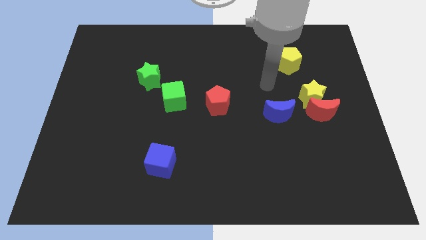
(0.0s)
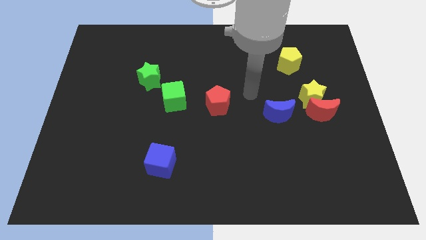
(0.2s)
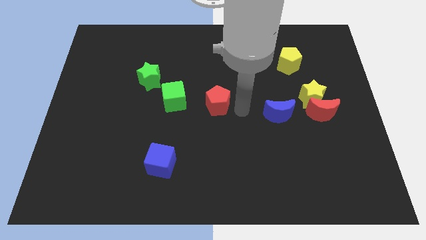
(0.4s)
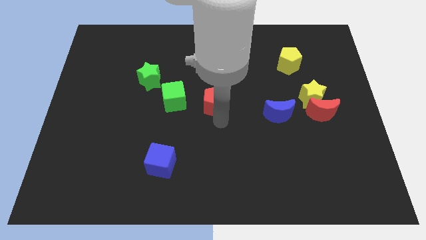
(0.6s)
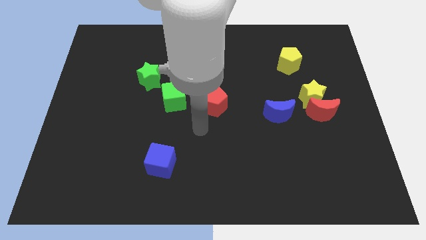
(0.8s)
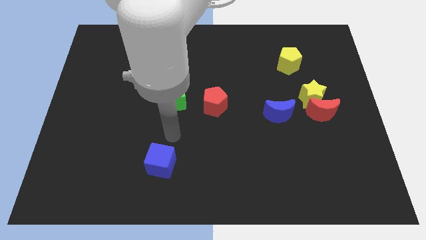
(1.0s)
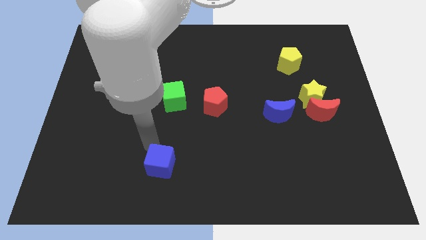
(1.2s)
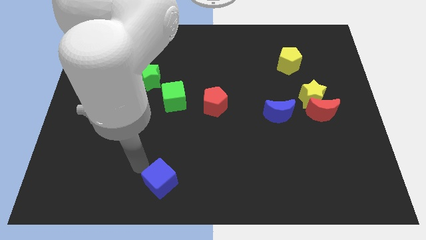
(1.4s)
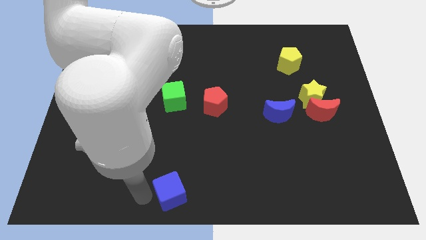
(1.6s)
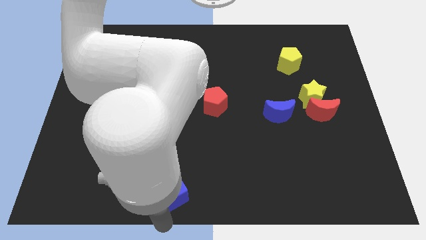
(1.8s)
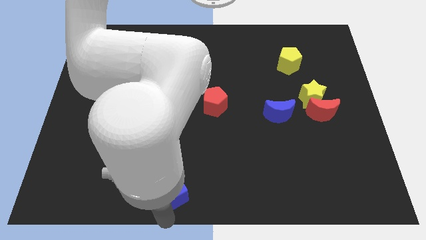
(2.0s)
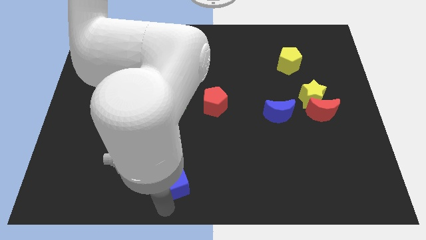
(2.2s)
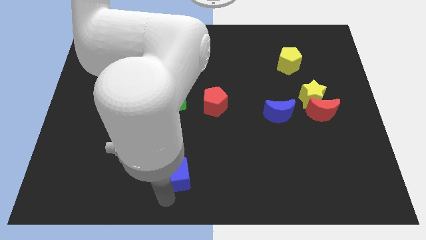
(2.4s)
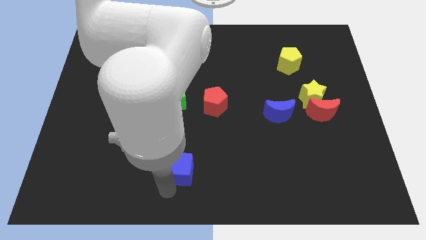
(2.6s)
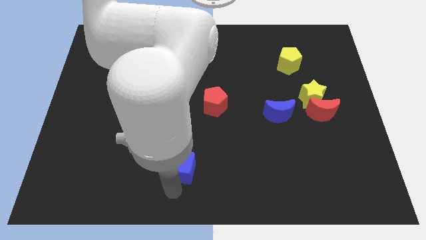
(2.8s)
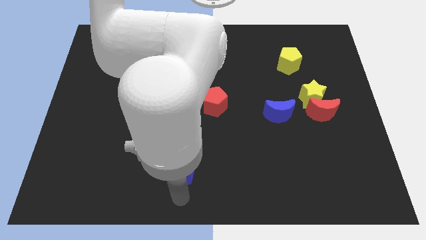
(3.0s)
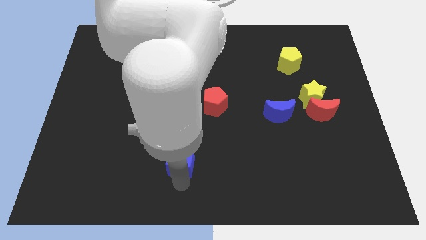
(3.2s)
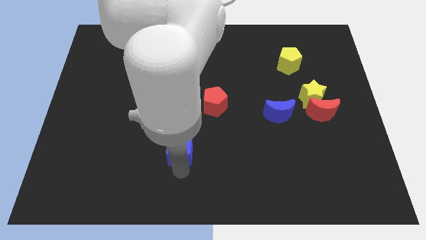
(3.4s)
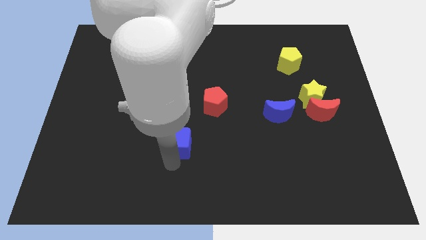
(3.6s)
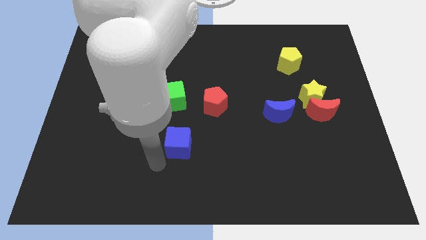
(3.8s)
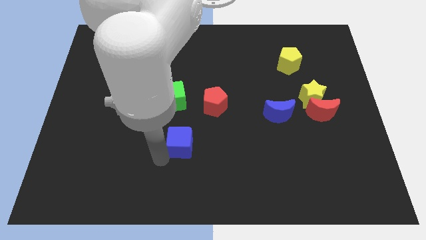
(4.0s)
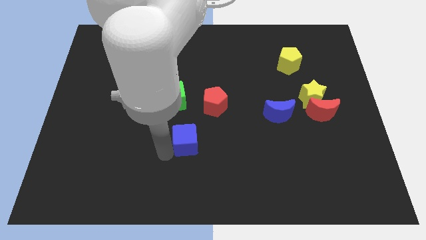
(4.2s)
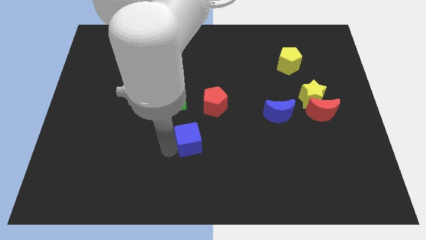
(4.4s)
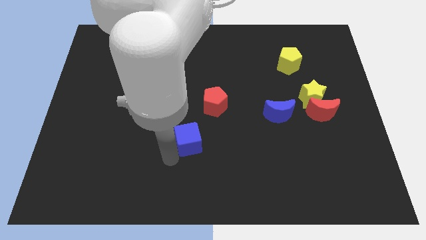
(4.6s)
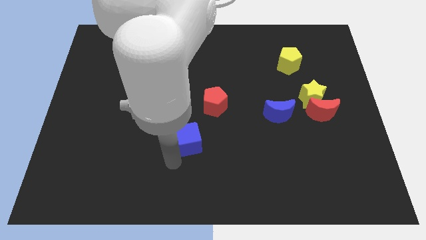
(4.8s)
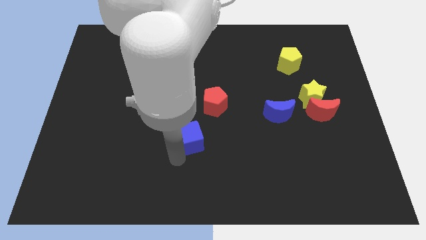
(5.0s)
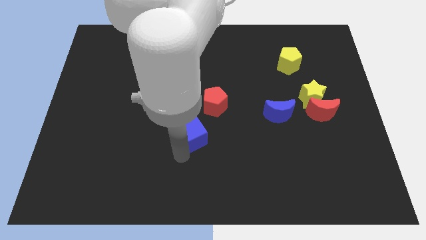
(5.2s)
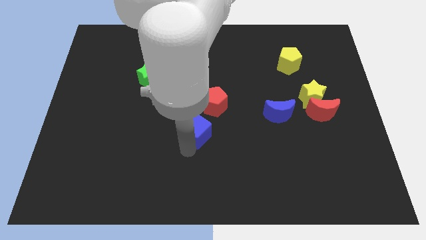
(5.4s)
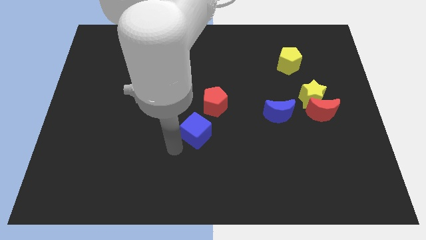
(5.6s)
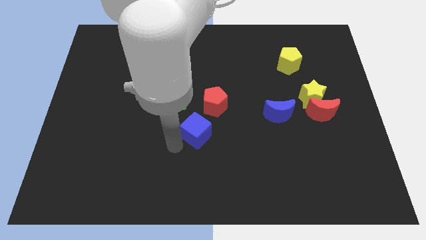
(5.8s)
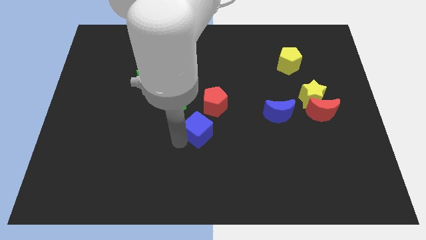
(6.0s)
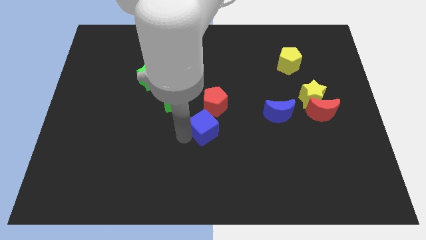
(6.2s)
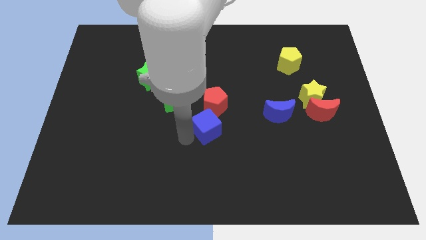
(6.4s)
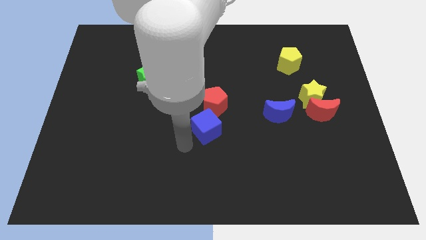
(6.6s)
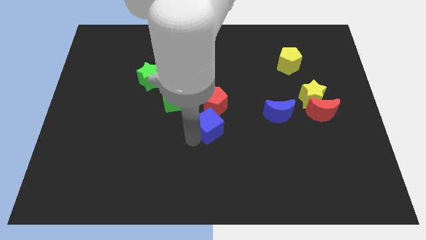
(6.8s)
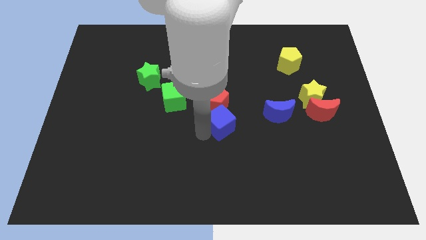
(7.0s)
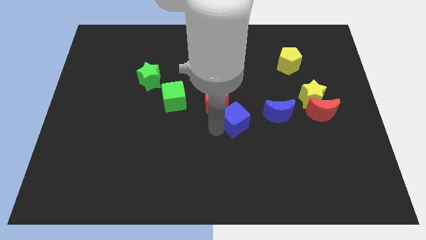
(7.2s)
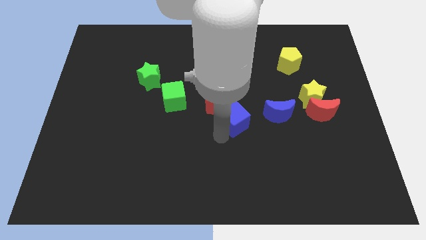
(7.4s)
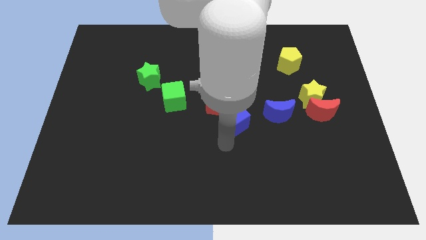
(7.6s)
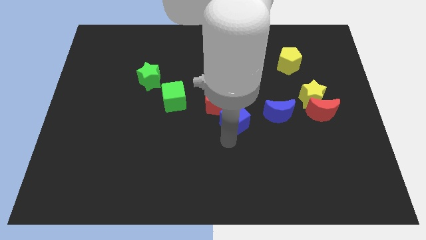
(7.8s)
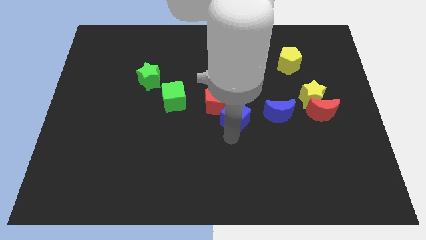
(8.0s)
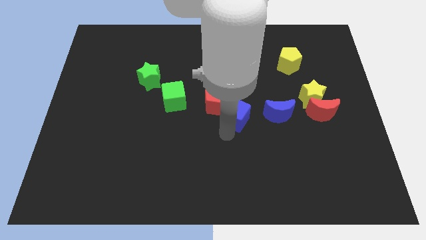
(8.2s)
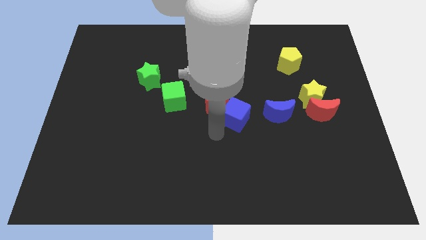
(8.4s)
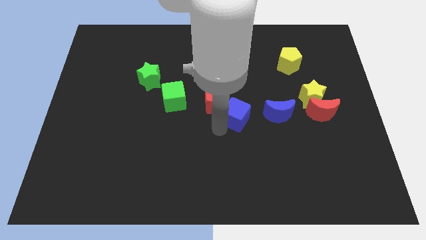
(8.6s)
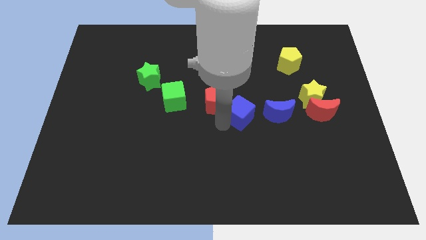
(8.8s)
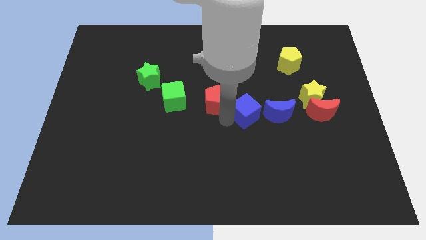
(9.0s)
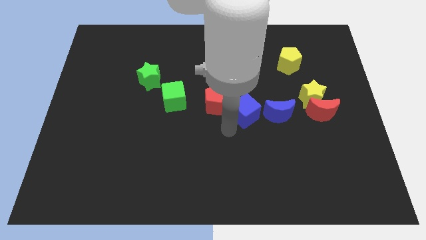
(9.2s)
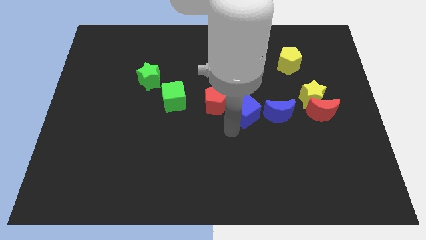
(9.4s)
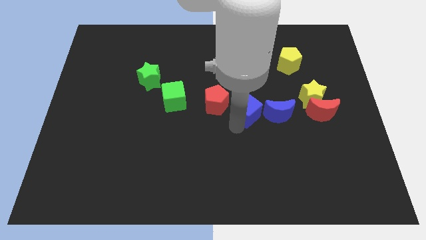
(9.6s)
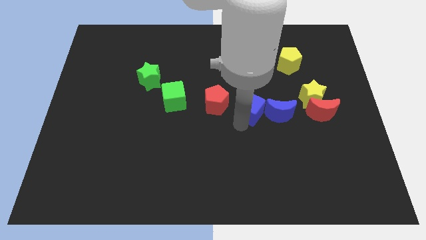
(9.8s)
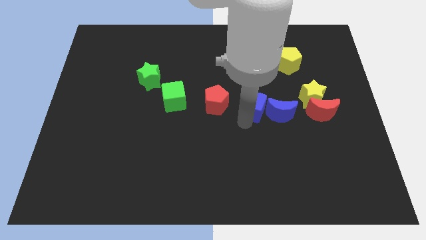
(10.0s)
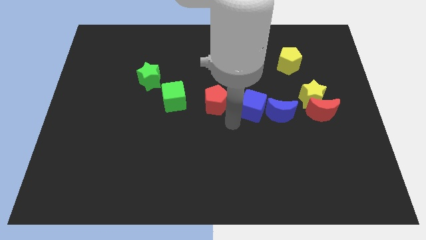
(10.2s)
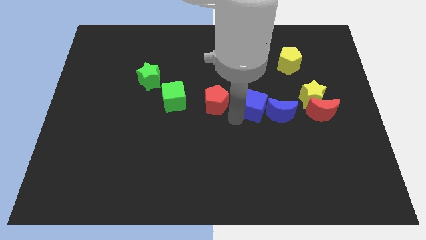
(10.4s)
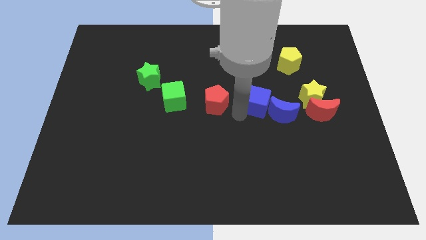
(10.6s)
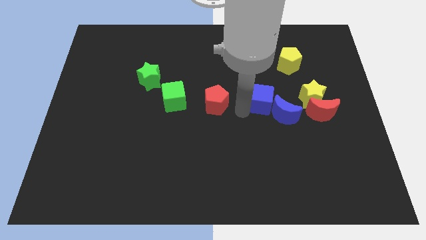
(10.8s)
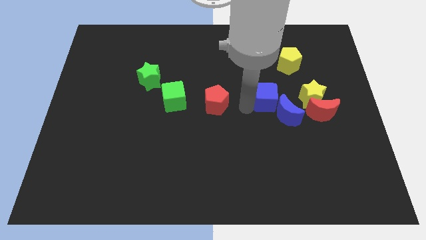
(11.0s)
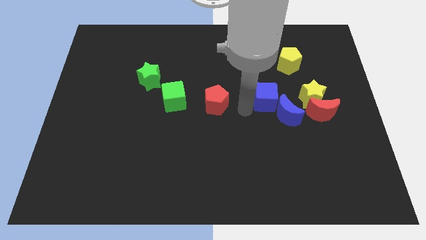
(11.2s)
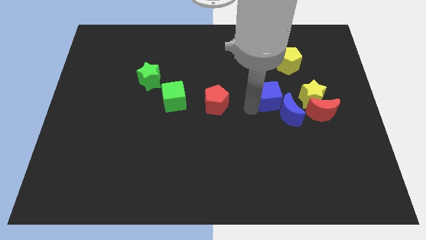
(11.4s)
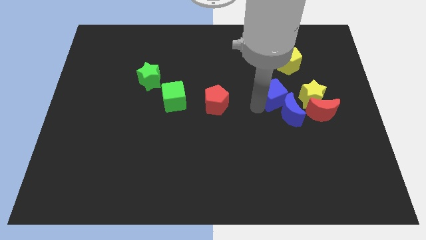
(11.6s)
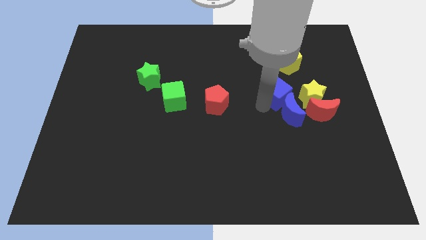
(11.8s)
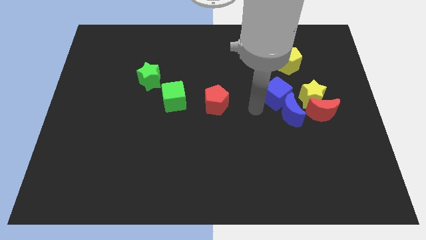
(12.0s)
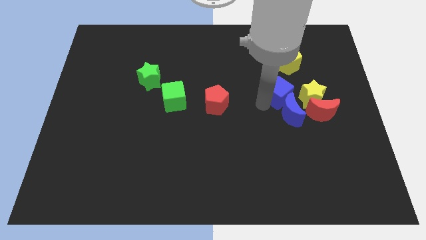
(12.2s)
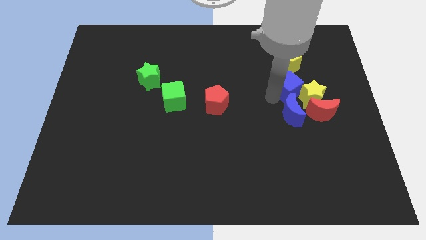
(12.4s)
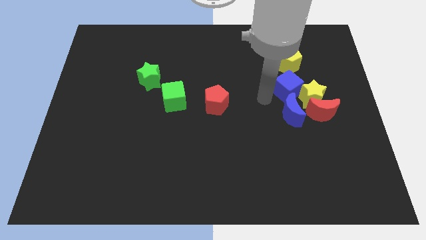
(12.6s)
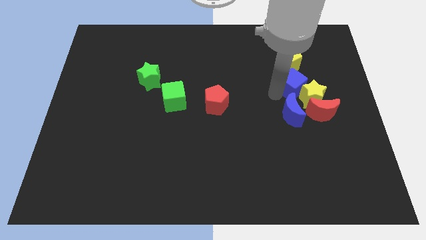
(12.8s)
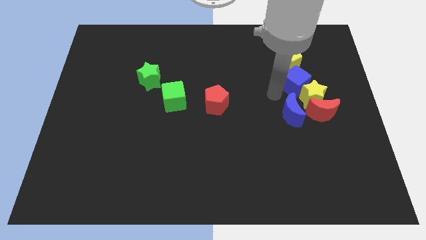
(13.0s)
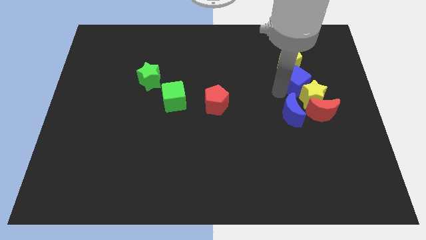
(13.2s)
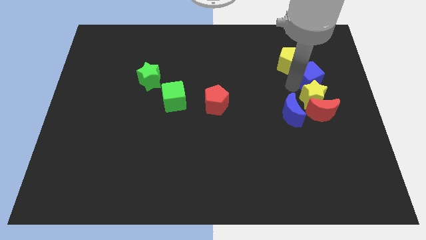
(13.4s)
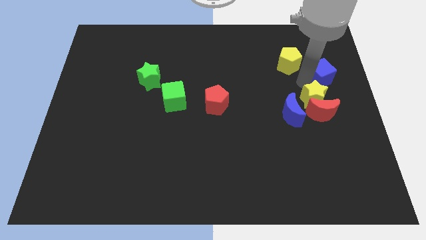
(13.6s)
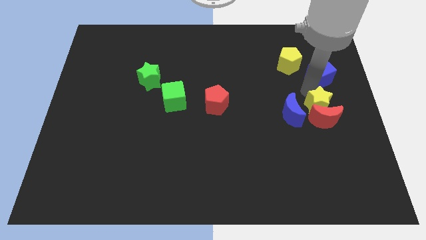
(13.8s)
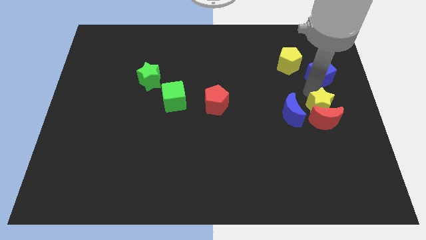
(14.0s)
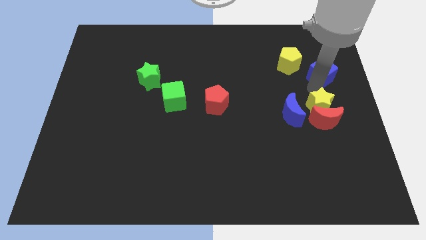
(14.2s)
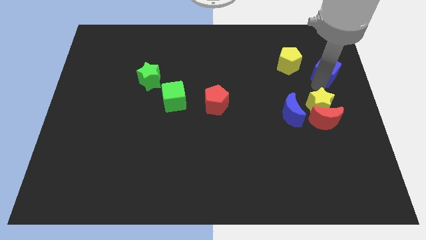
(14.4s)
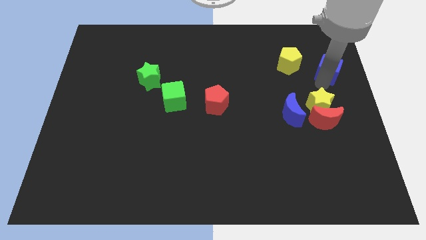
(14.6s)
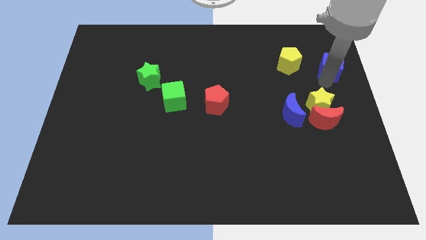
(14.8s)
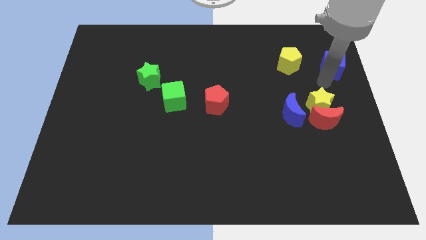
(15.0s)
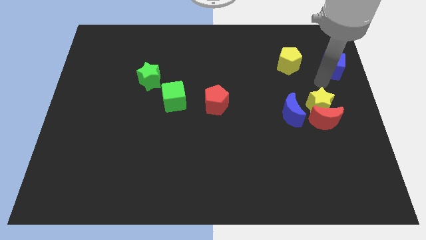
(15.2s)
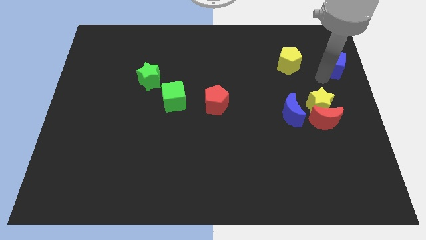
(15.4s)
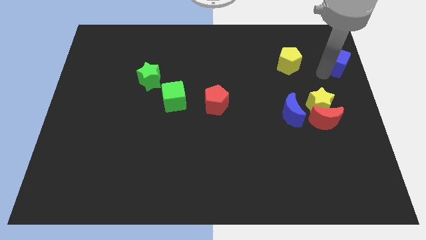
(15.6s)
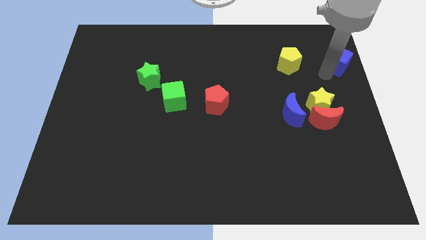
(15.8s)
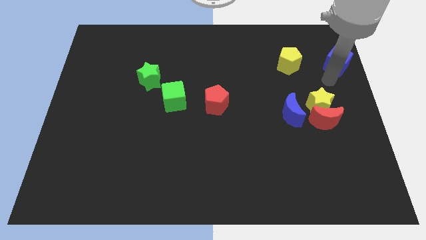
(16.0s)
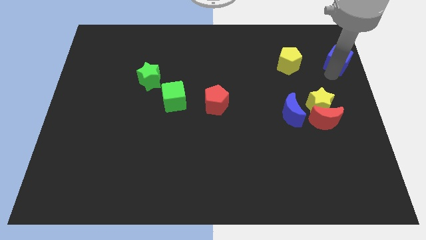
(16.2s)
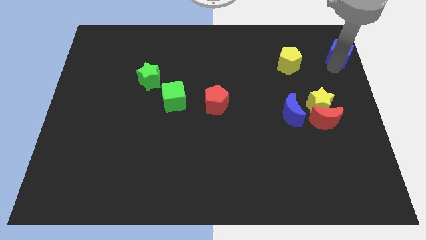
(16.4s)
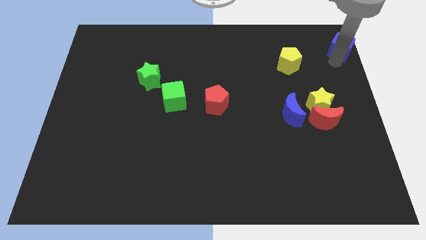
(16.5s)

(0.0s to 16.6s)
slide the blue cube to the top right of the board
